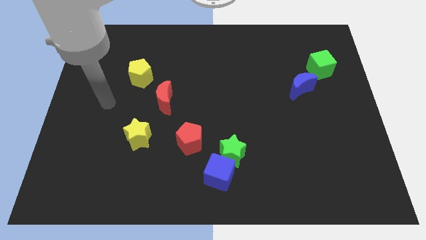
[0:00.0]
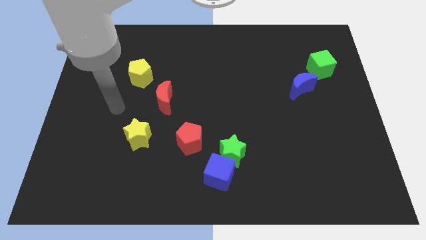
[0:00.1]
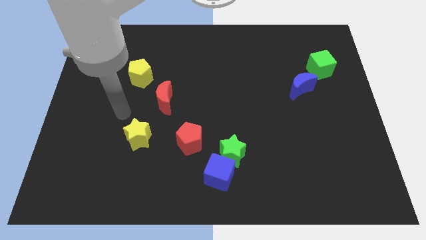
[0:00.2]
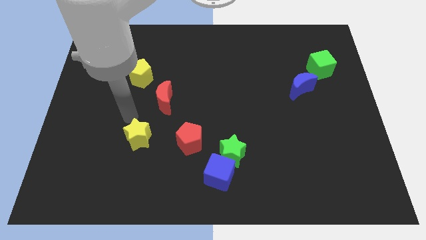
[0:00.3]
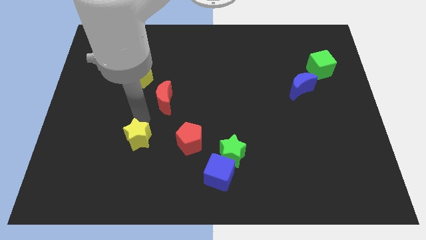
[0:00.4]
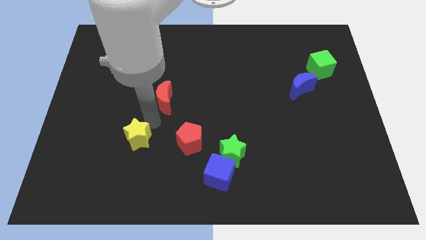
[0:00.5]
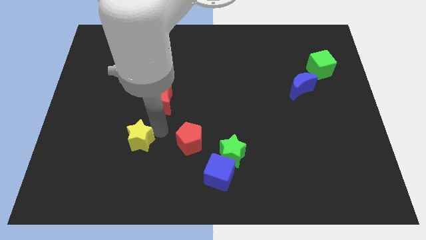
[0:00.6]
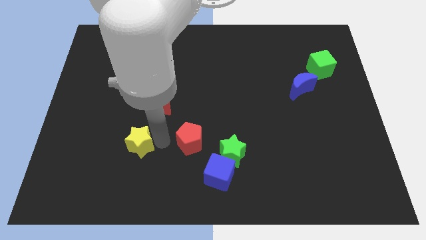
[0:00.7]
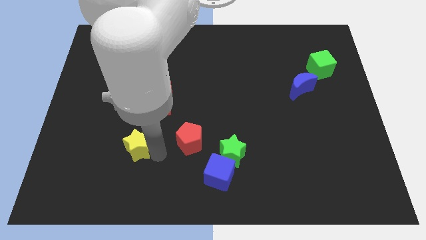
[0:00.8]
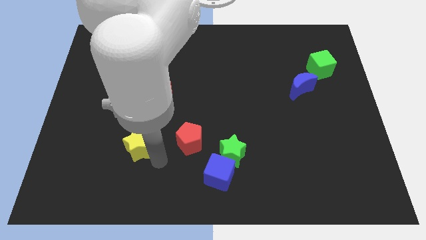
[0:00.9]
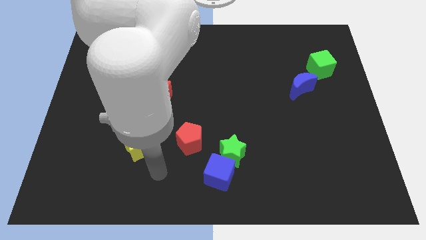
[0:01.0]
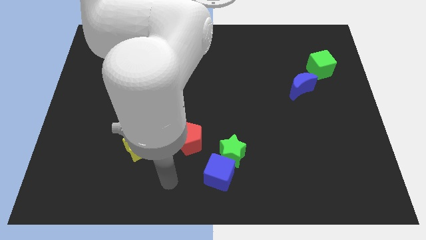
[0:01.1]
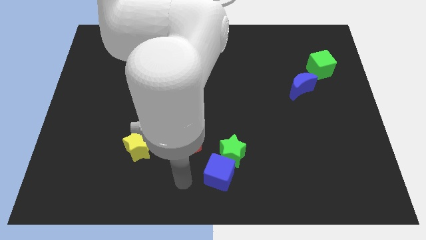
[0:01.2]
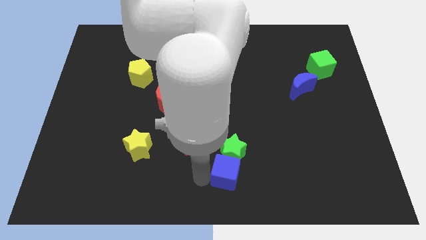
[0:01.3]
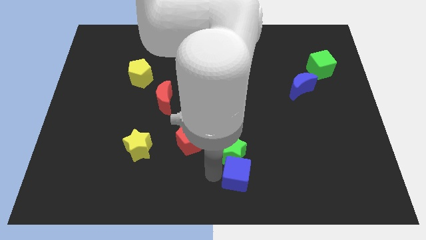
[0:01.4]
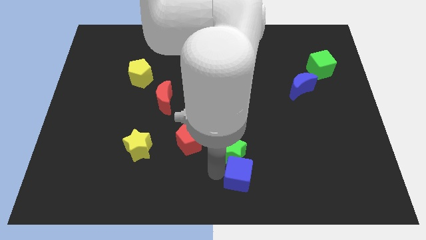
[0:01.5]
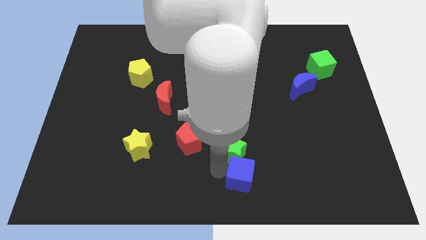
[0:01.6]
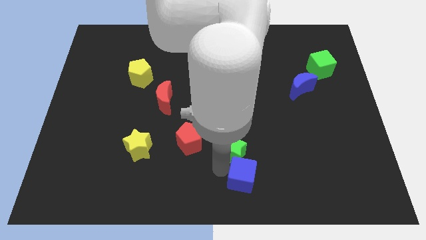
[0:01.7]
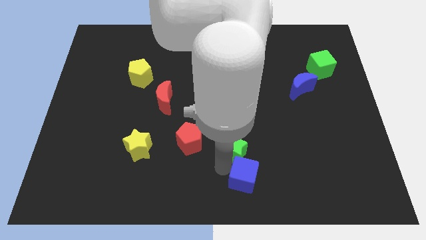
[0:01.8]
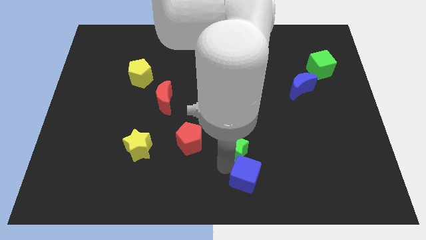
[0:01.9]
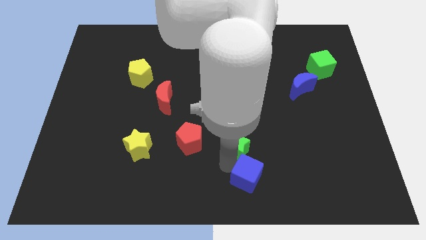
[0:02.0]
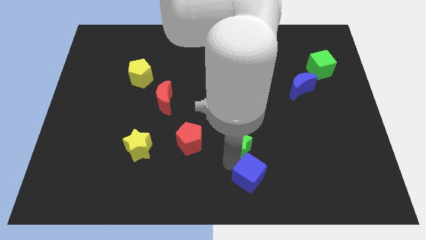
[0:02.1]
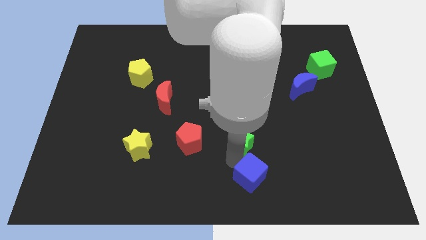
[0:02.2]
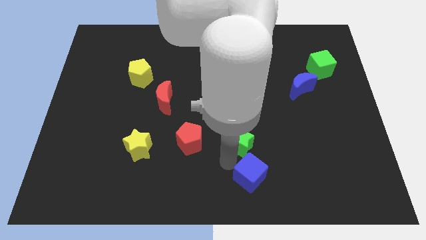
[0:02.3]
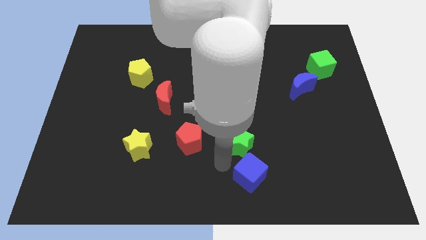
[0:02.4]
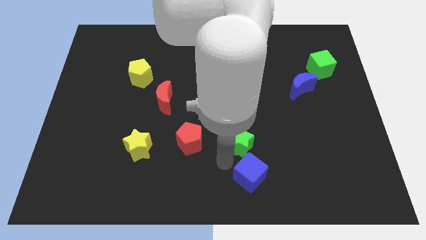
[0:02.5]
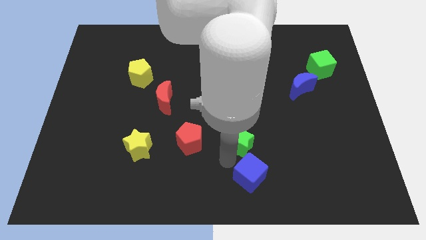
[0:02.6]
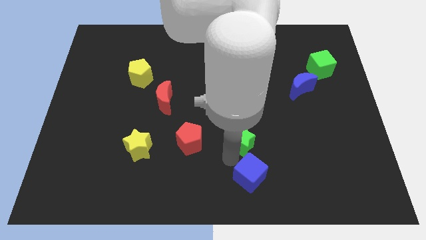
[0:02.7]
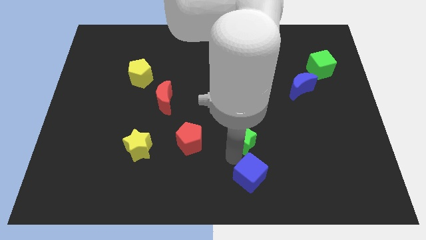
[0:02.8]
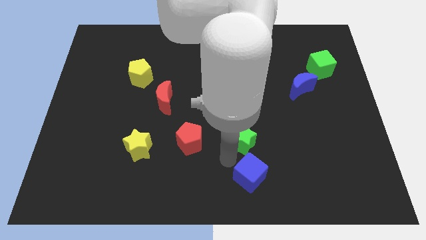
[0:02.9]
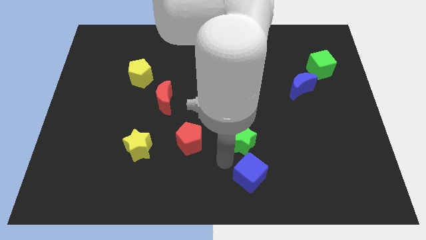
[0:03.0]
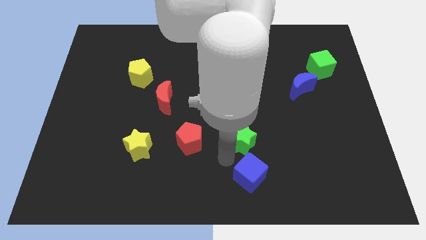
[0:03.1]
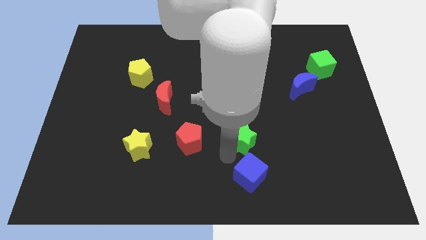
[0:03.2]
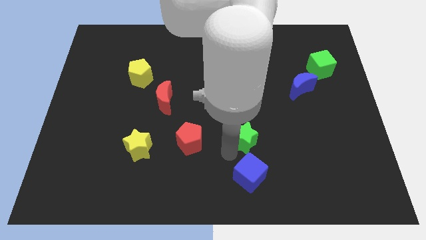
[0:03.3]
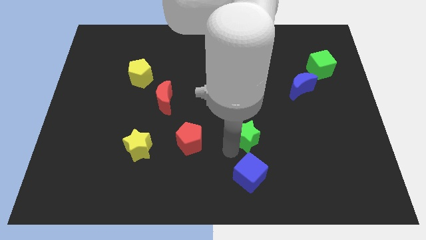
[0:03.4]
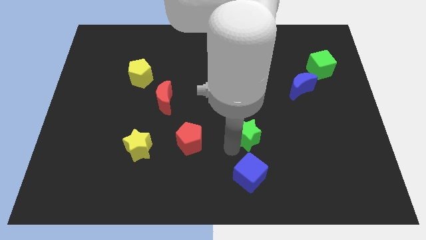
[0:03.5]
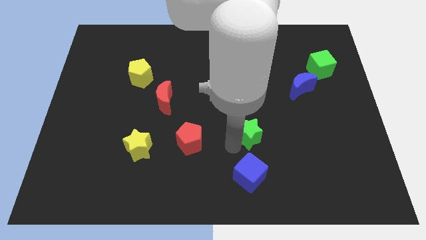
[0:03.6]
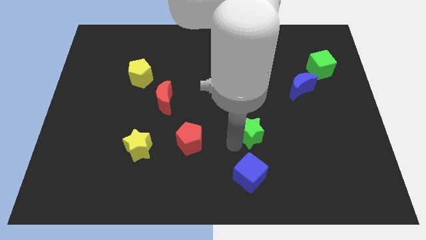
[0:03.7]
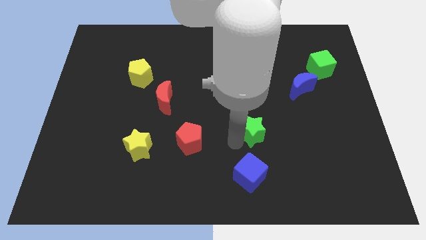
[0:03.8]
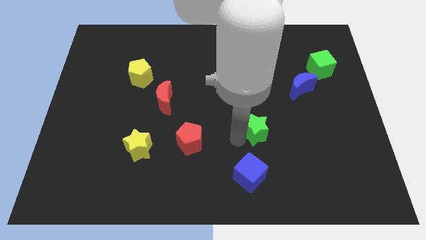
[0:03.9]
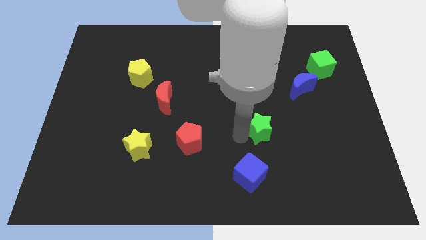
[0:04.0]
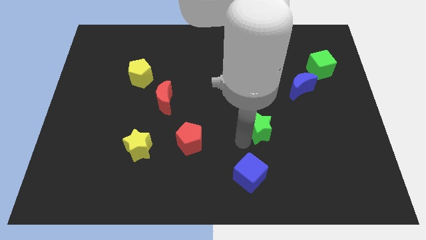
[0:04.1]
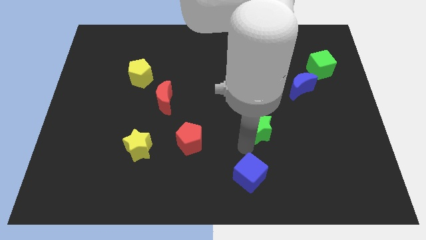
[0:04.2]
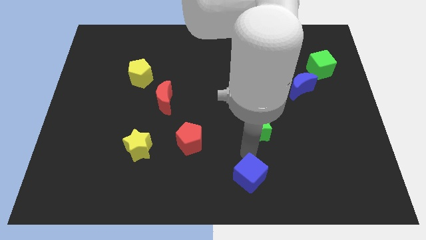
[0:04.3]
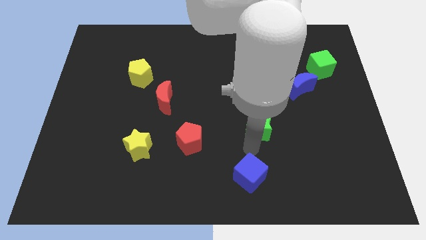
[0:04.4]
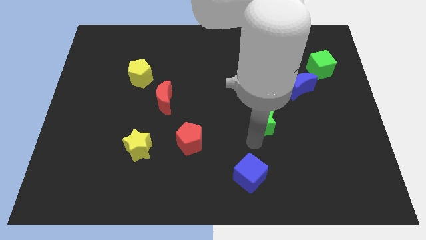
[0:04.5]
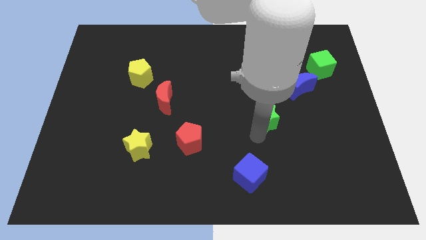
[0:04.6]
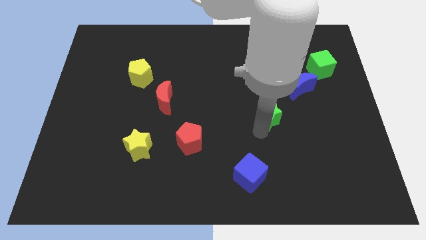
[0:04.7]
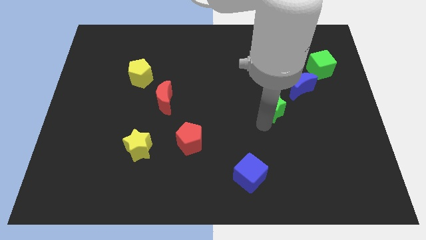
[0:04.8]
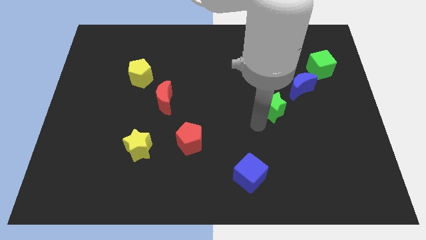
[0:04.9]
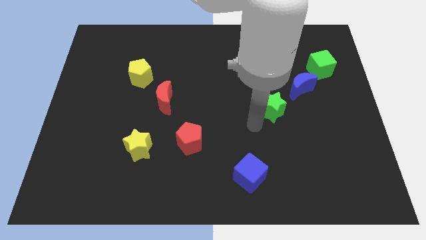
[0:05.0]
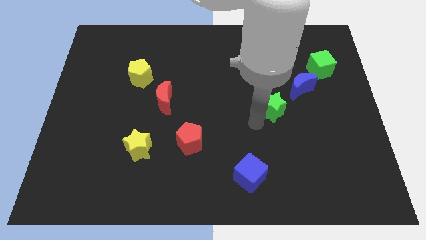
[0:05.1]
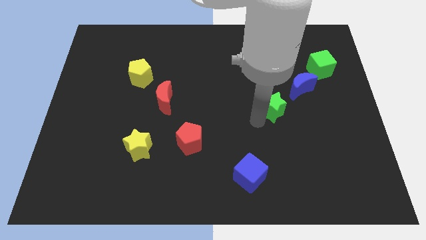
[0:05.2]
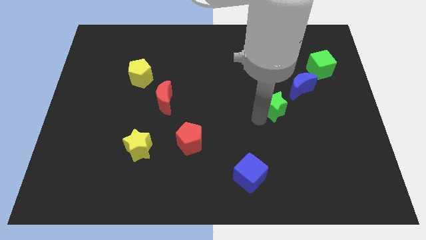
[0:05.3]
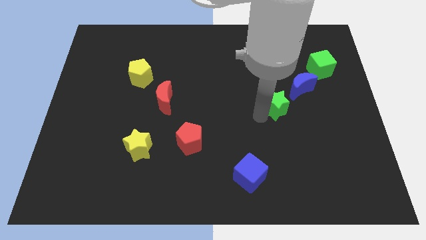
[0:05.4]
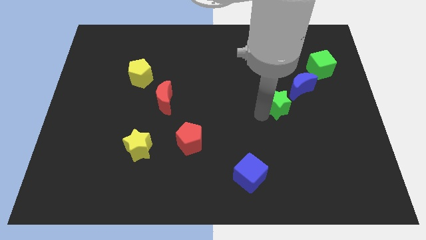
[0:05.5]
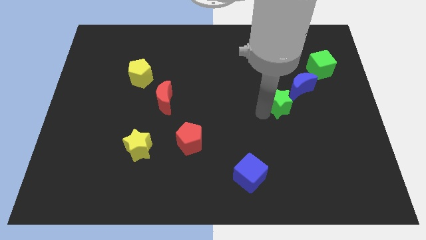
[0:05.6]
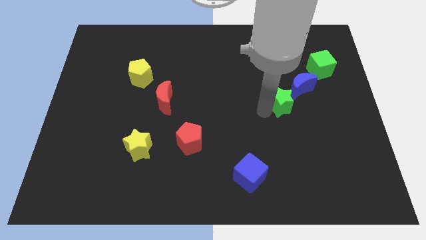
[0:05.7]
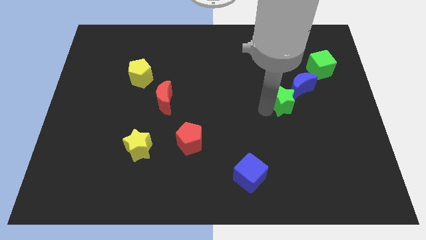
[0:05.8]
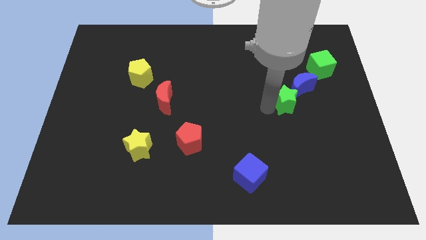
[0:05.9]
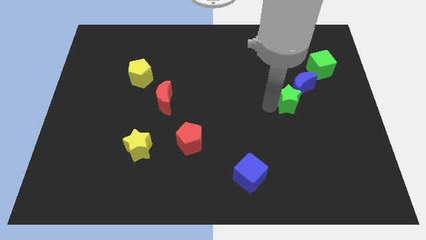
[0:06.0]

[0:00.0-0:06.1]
move the green star close to the blue moon
